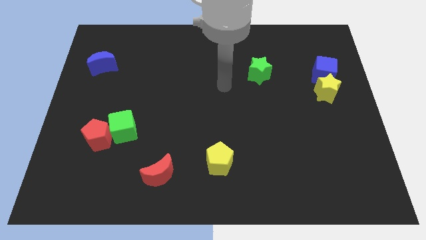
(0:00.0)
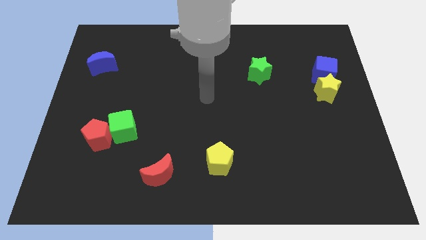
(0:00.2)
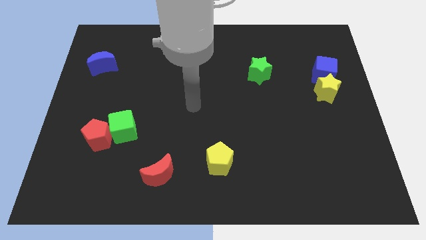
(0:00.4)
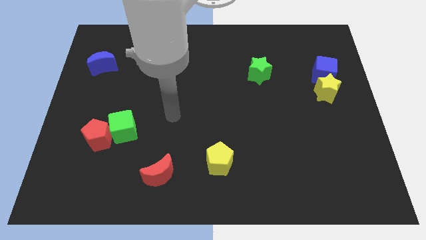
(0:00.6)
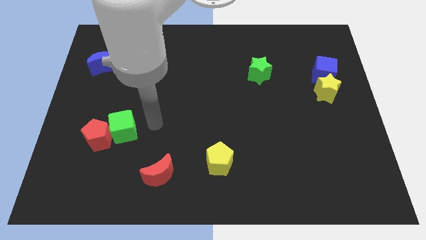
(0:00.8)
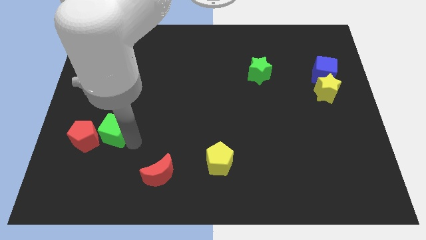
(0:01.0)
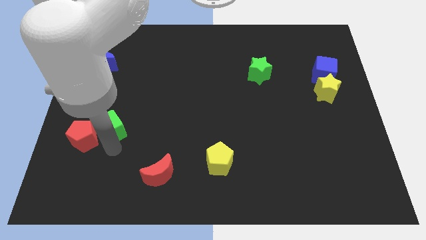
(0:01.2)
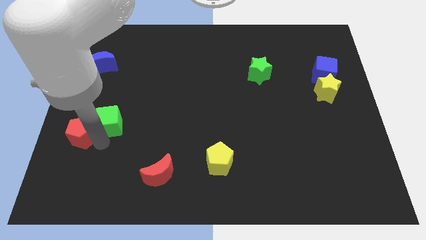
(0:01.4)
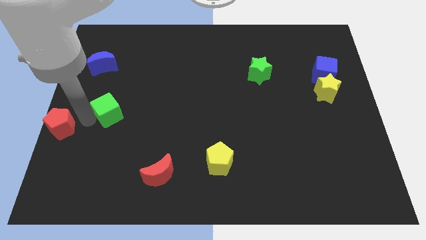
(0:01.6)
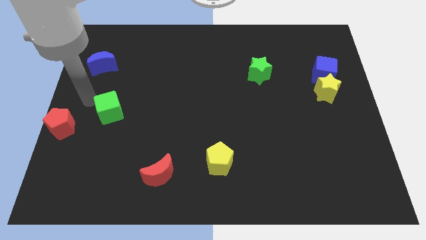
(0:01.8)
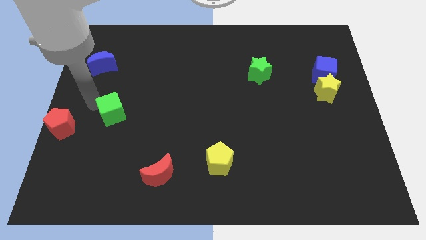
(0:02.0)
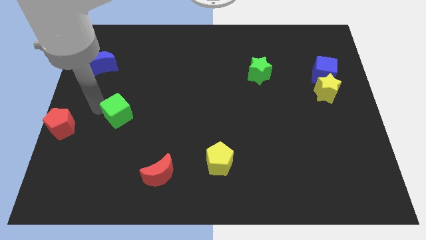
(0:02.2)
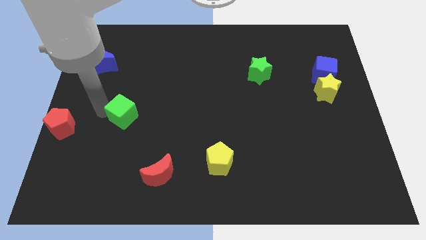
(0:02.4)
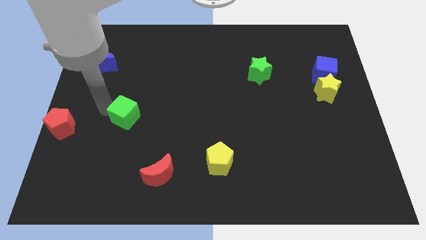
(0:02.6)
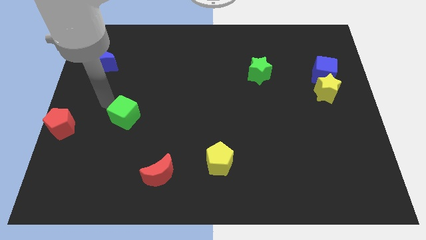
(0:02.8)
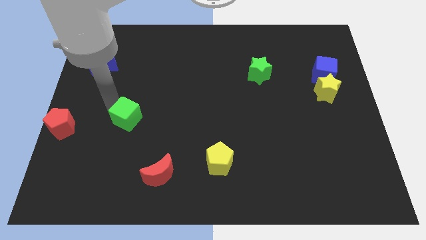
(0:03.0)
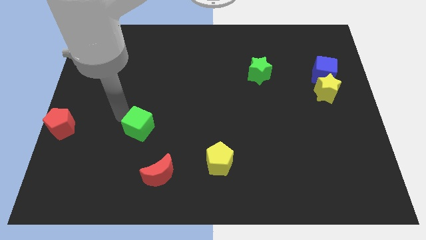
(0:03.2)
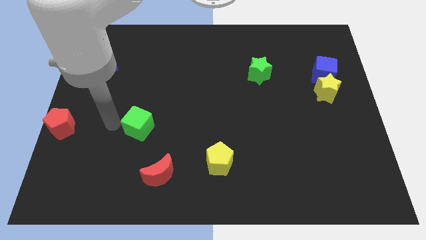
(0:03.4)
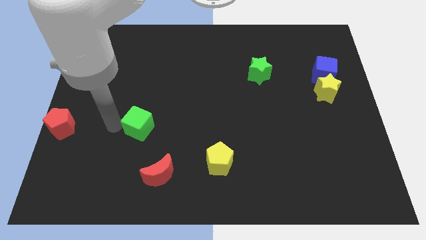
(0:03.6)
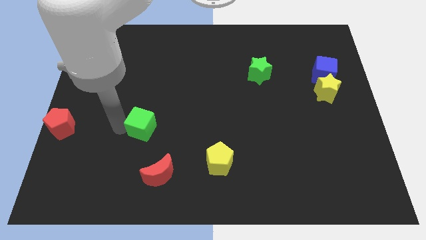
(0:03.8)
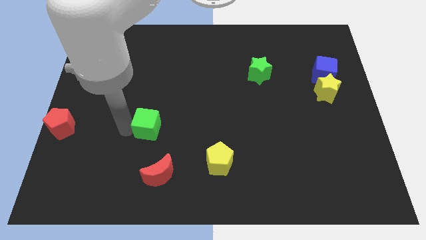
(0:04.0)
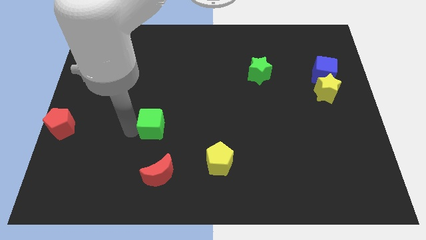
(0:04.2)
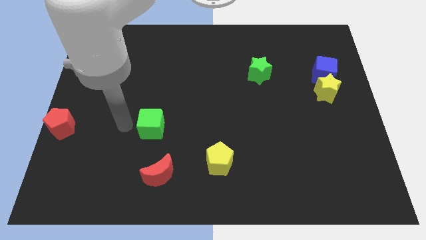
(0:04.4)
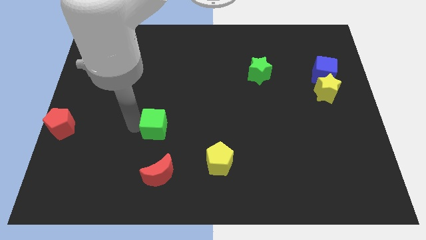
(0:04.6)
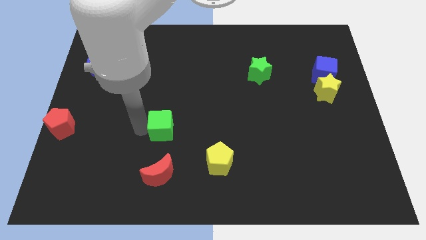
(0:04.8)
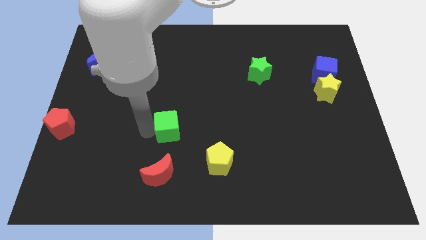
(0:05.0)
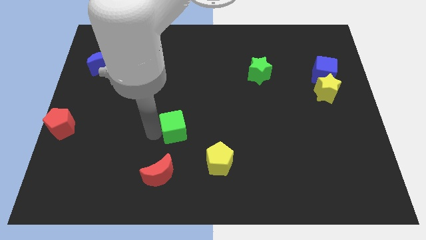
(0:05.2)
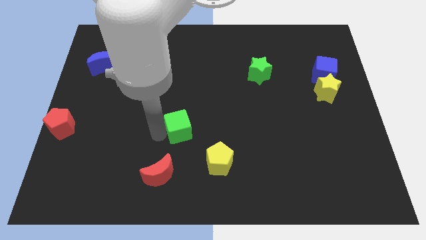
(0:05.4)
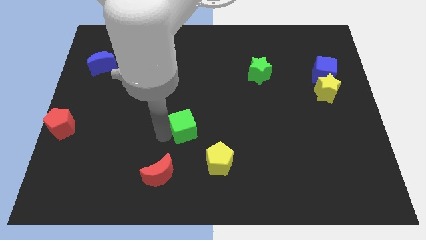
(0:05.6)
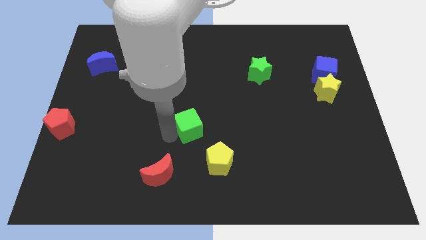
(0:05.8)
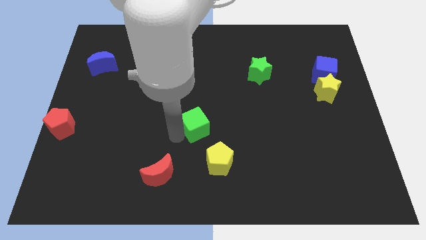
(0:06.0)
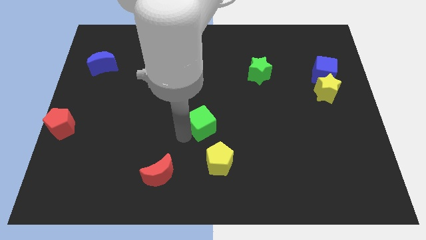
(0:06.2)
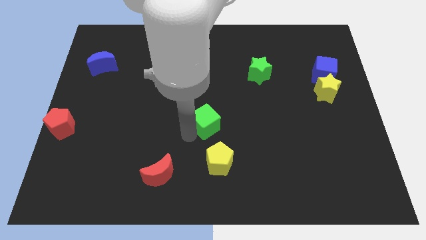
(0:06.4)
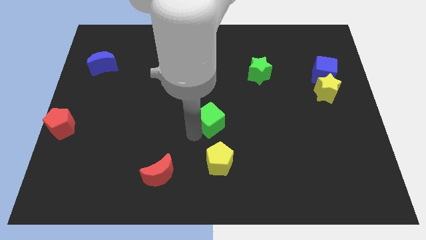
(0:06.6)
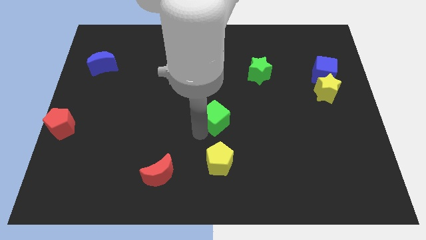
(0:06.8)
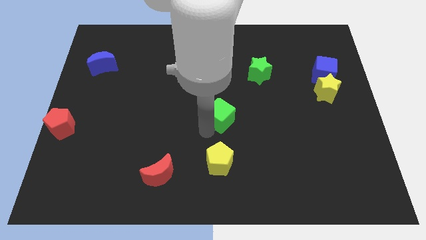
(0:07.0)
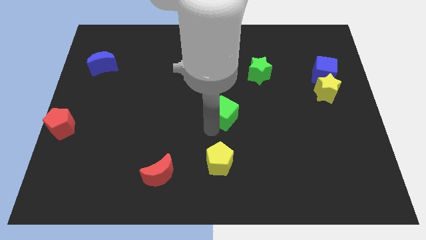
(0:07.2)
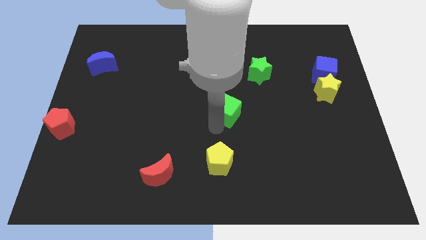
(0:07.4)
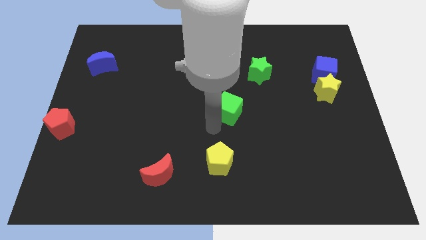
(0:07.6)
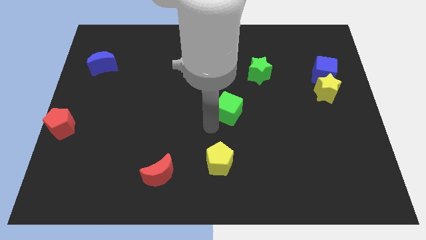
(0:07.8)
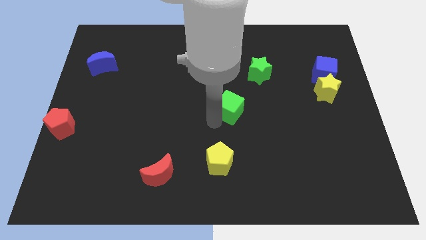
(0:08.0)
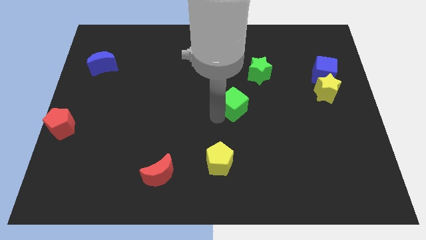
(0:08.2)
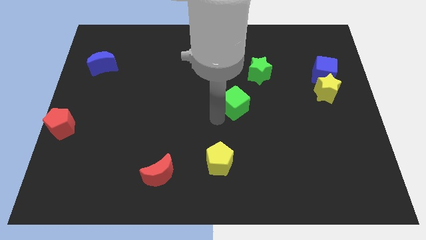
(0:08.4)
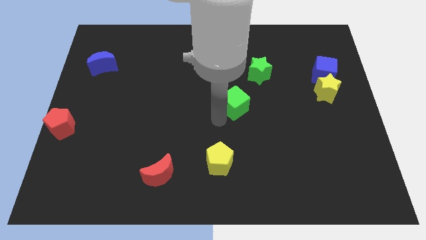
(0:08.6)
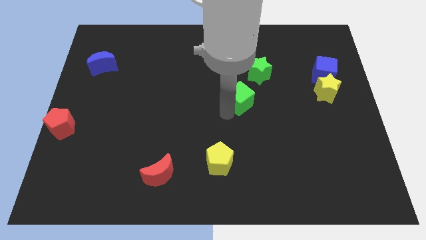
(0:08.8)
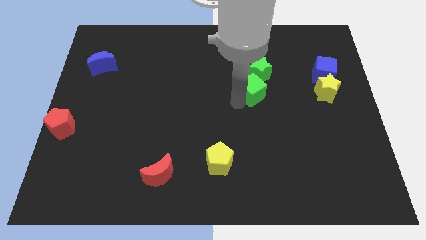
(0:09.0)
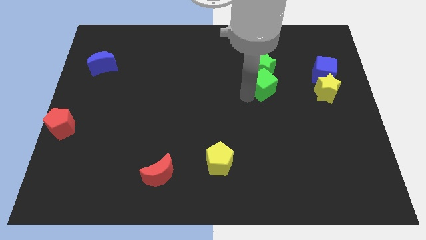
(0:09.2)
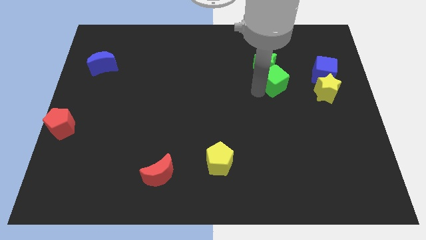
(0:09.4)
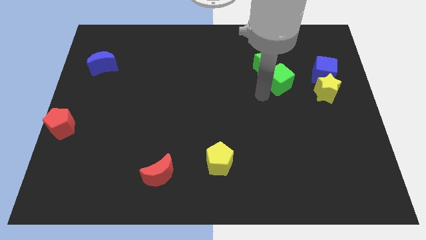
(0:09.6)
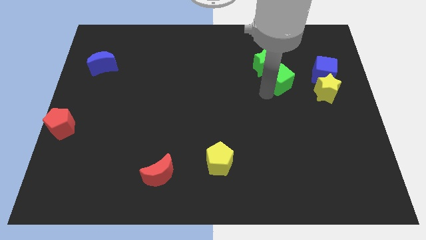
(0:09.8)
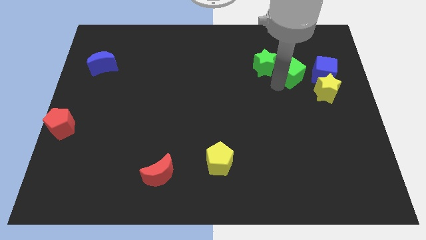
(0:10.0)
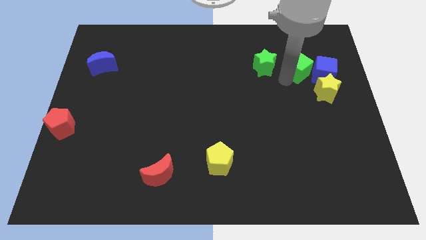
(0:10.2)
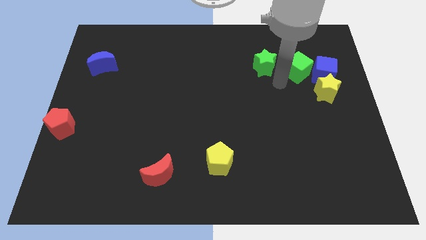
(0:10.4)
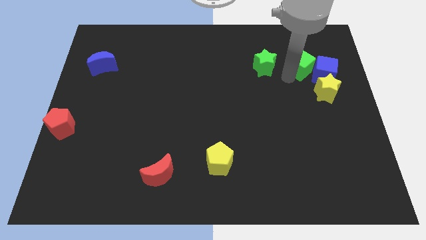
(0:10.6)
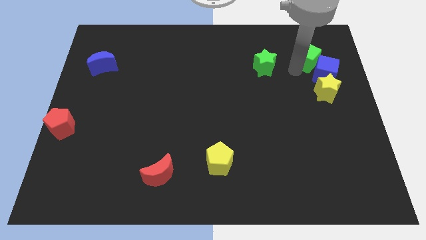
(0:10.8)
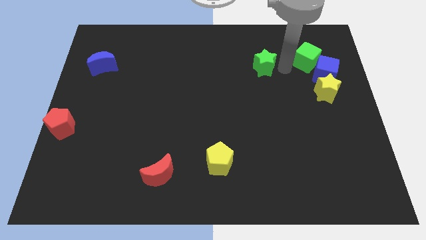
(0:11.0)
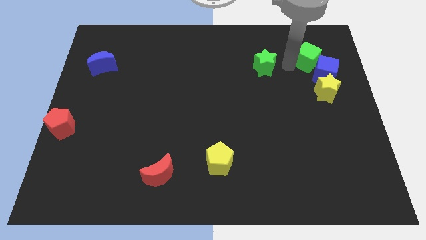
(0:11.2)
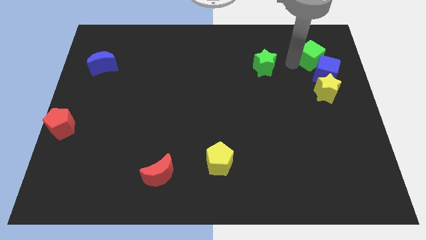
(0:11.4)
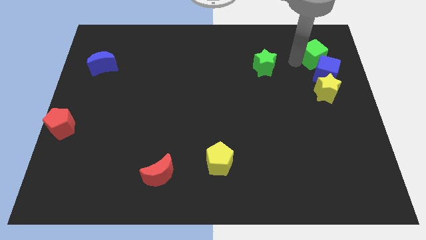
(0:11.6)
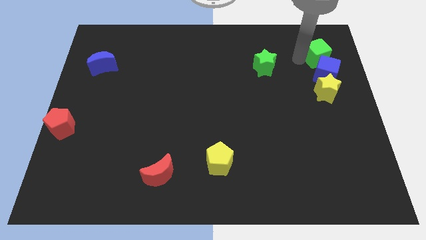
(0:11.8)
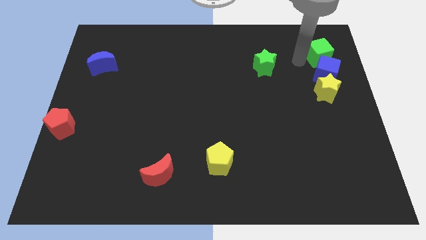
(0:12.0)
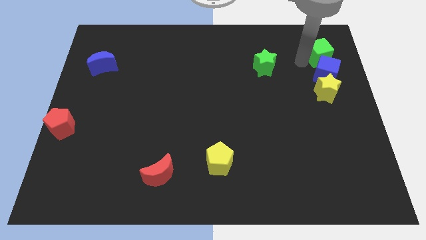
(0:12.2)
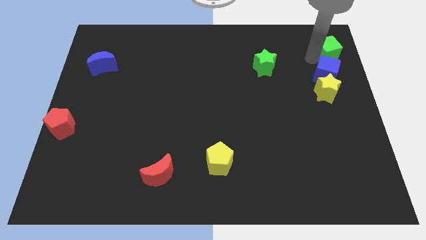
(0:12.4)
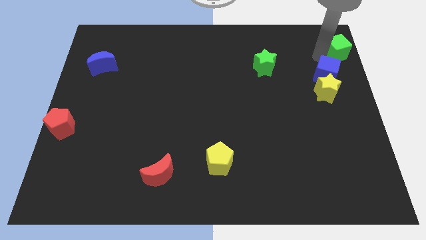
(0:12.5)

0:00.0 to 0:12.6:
slide the green cube to the top right of the board

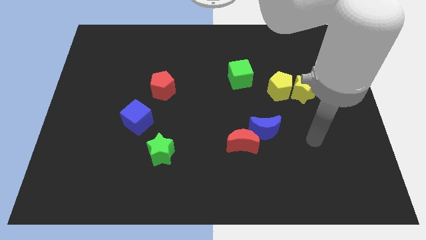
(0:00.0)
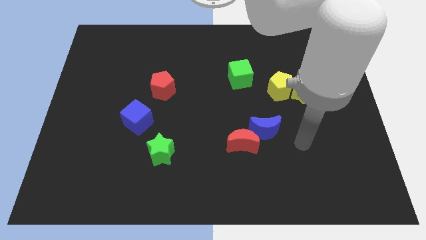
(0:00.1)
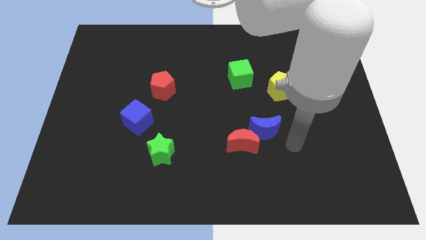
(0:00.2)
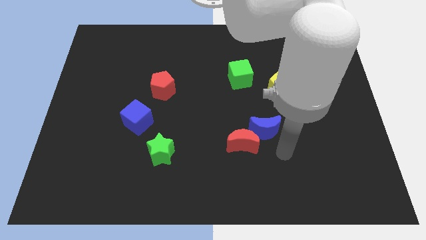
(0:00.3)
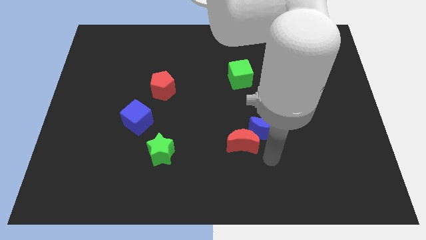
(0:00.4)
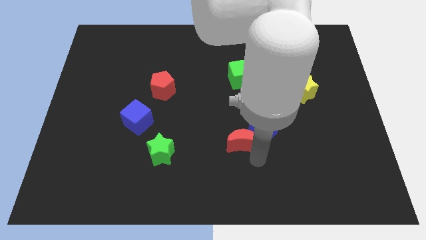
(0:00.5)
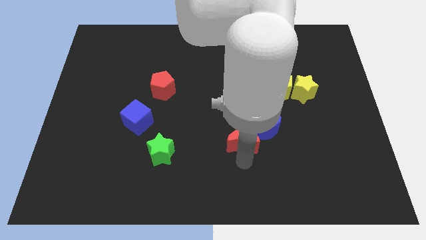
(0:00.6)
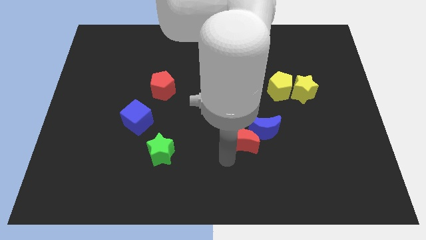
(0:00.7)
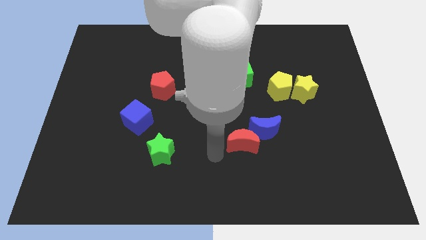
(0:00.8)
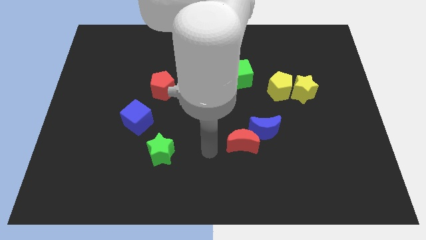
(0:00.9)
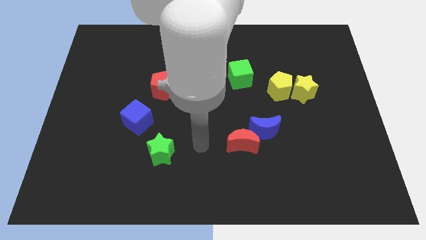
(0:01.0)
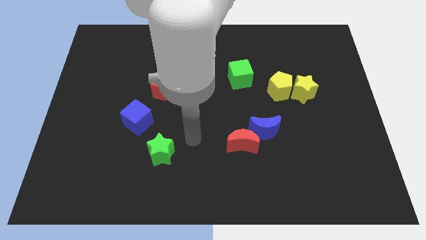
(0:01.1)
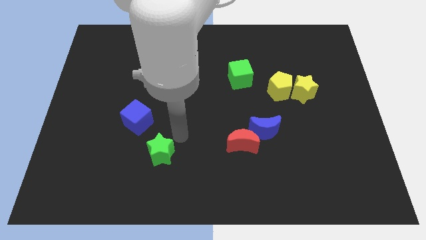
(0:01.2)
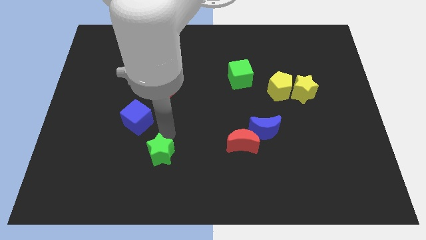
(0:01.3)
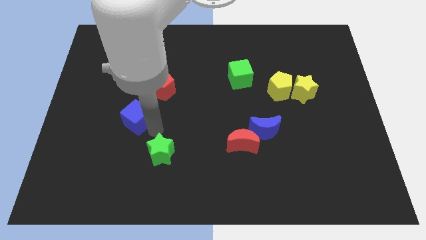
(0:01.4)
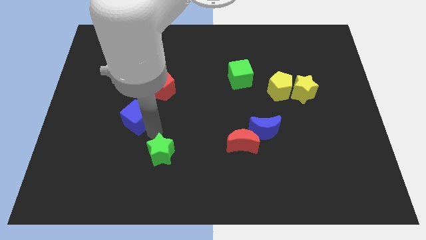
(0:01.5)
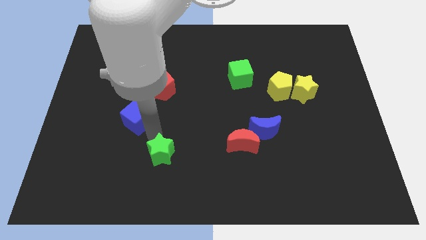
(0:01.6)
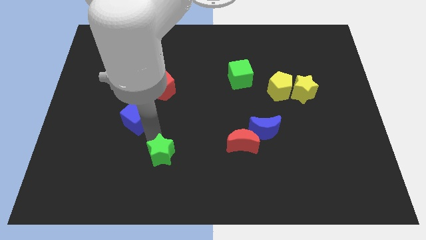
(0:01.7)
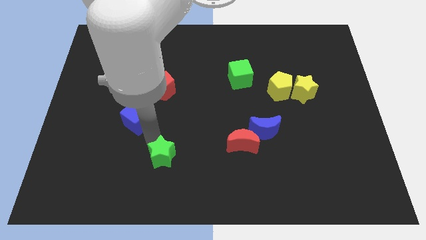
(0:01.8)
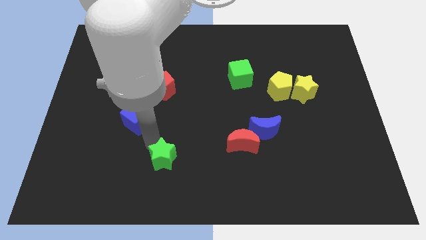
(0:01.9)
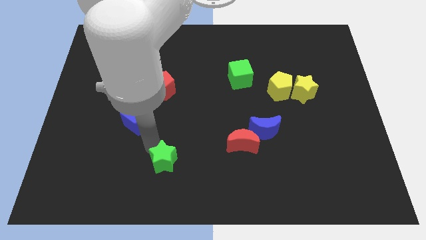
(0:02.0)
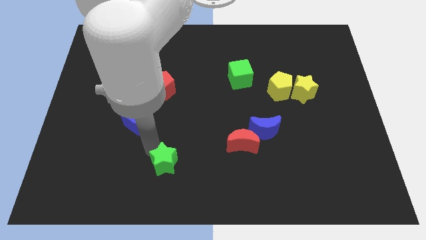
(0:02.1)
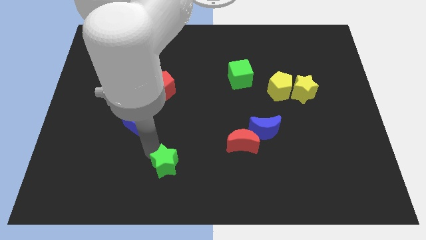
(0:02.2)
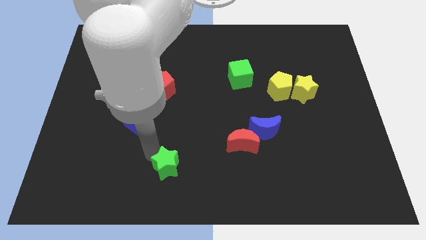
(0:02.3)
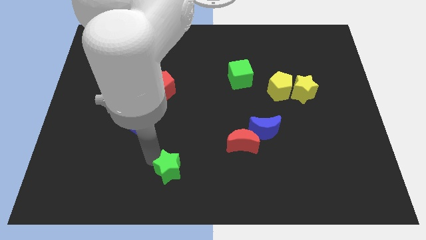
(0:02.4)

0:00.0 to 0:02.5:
move the green star to the bottom side
